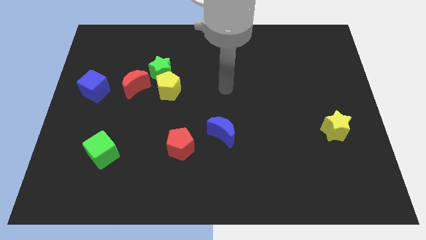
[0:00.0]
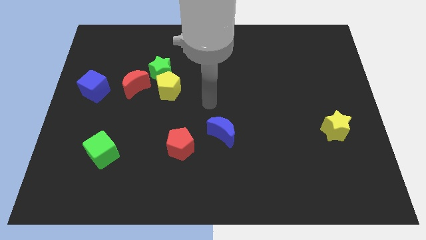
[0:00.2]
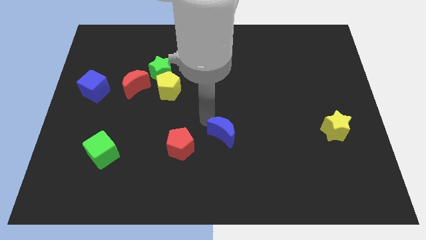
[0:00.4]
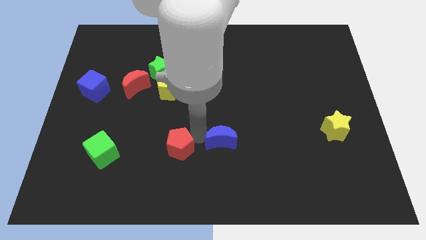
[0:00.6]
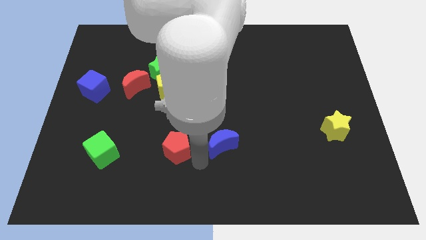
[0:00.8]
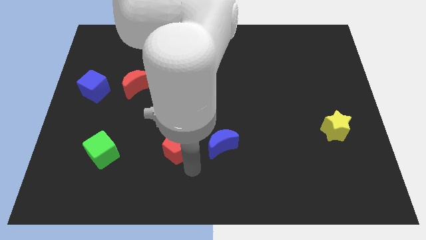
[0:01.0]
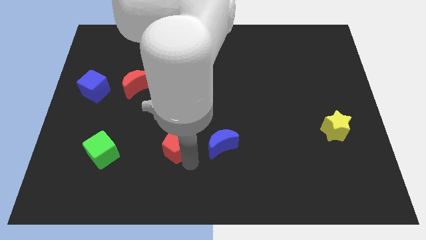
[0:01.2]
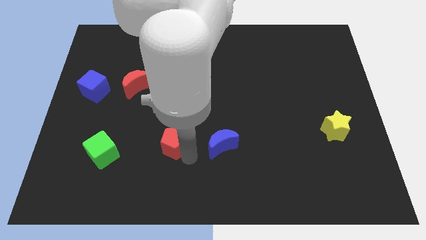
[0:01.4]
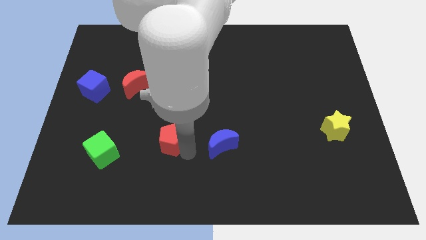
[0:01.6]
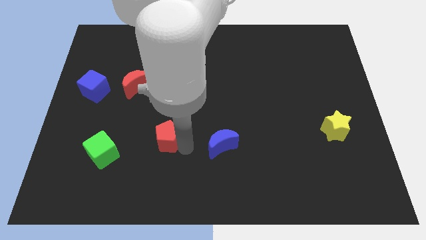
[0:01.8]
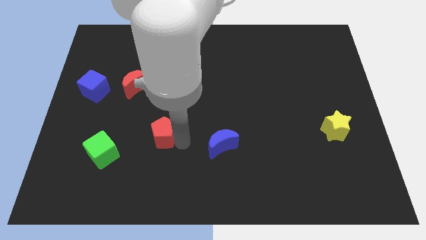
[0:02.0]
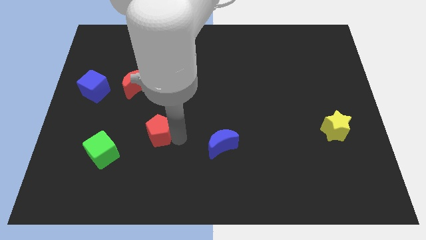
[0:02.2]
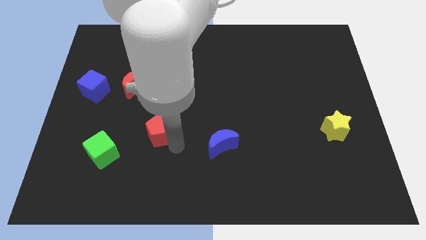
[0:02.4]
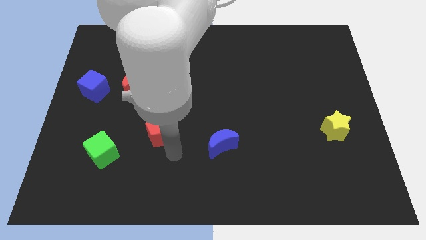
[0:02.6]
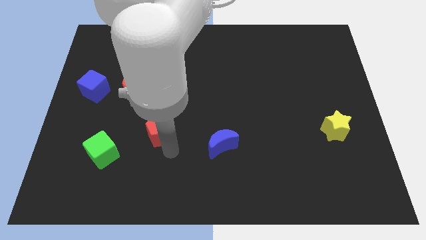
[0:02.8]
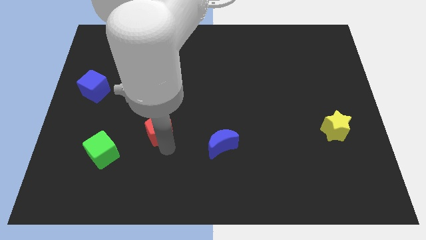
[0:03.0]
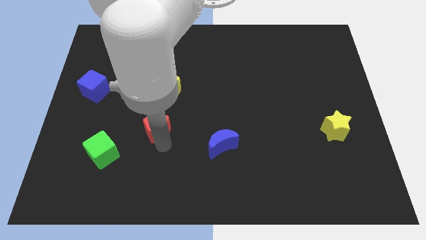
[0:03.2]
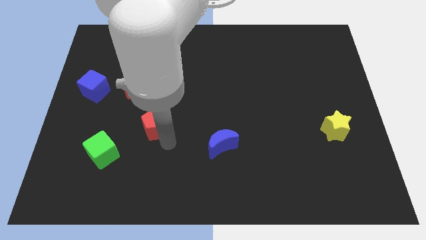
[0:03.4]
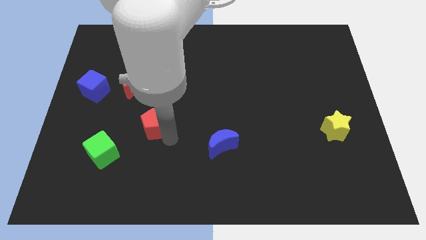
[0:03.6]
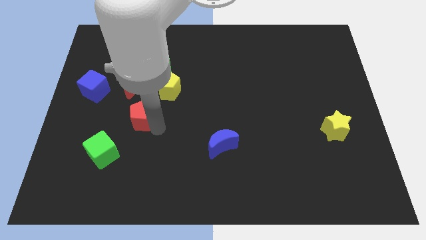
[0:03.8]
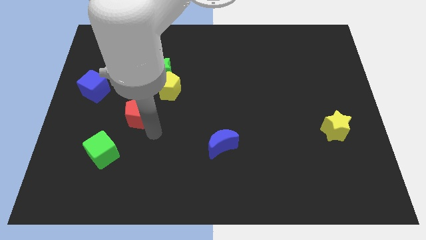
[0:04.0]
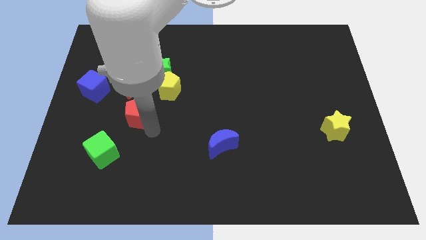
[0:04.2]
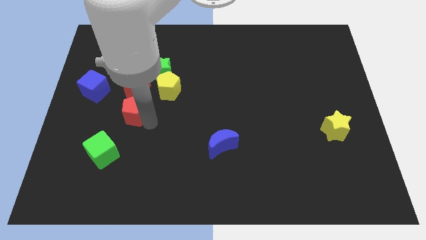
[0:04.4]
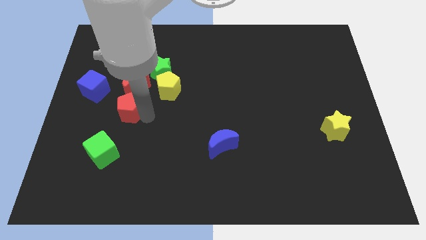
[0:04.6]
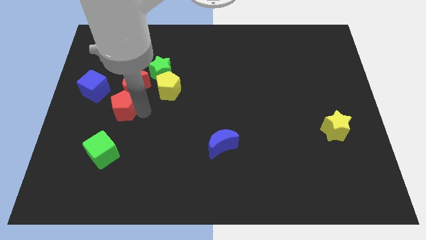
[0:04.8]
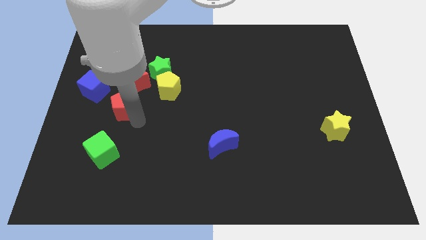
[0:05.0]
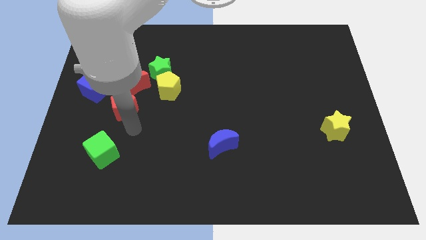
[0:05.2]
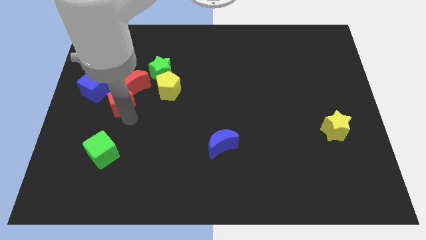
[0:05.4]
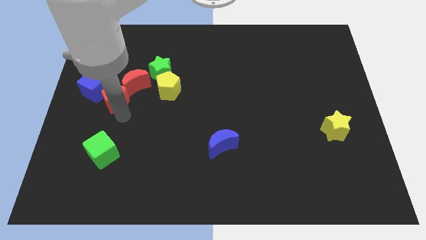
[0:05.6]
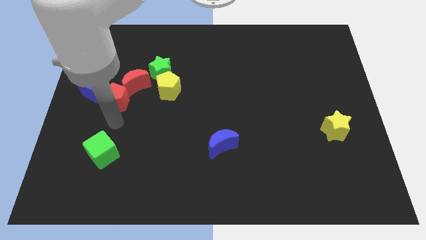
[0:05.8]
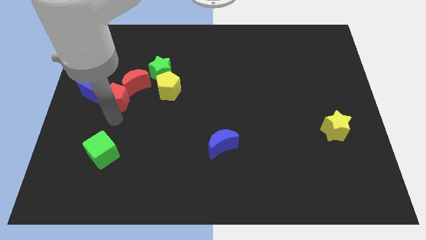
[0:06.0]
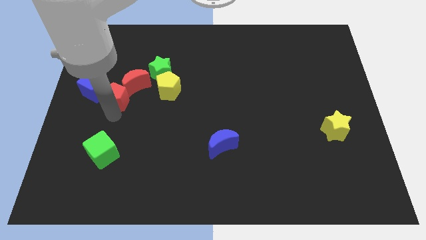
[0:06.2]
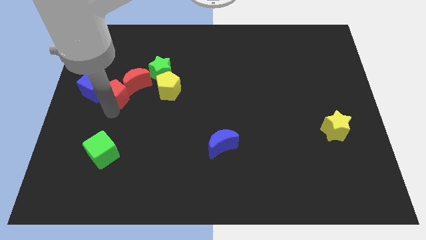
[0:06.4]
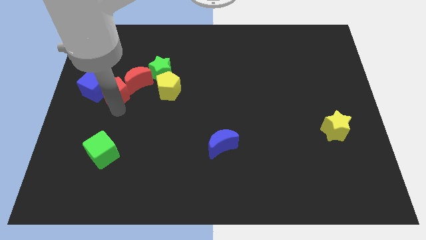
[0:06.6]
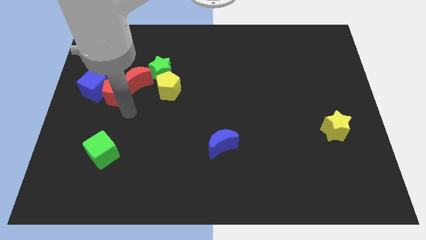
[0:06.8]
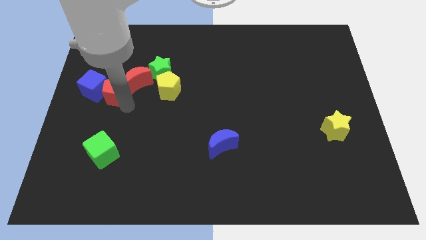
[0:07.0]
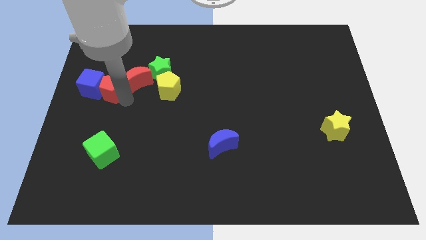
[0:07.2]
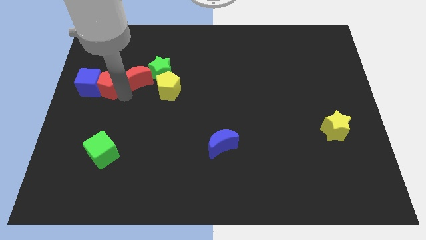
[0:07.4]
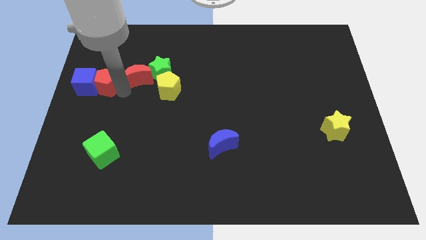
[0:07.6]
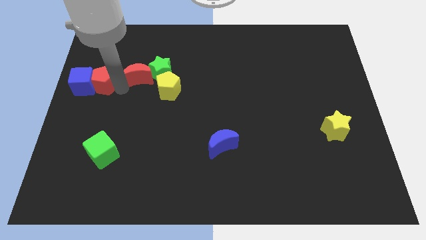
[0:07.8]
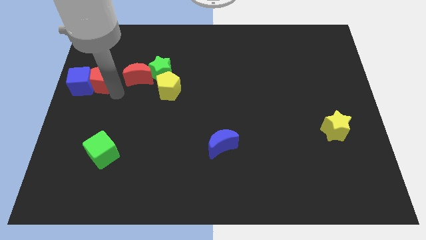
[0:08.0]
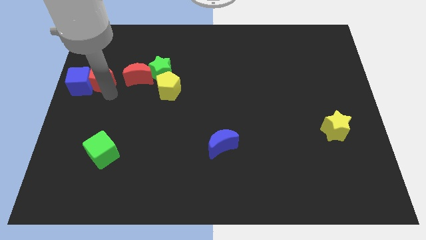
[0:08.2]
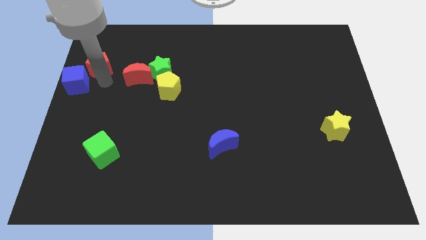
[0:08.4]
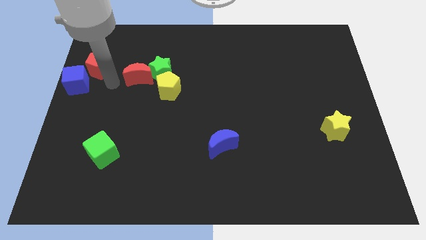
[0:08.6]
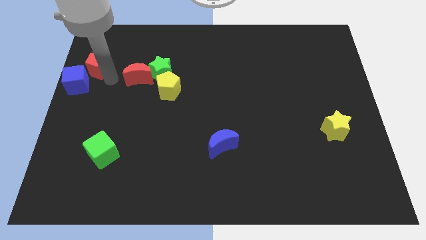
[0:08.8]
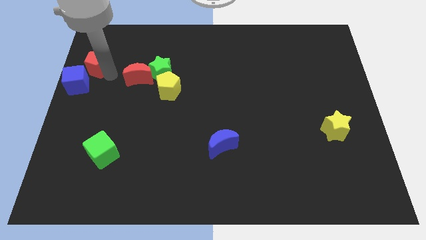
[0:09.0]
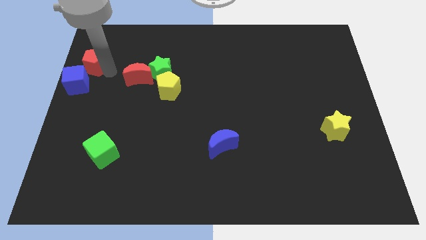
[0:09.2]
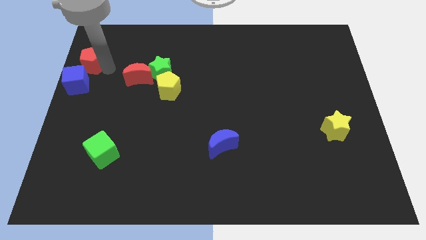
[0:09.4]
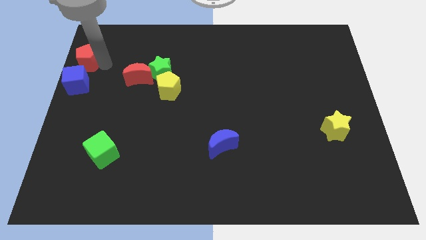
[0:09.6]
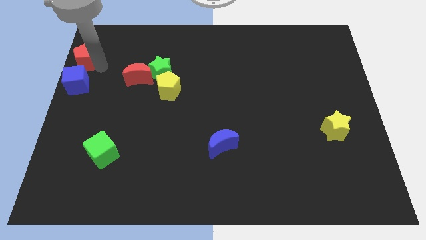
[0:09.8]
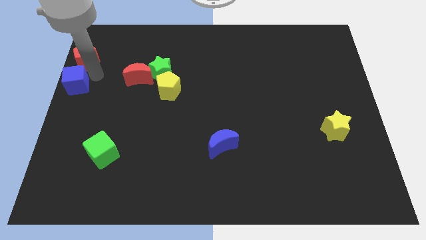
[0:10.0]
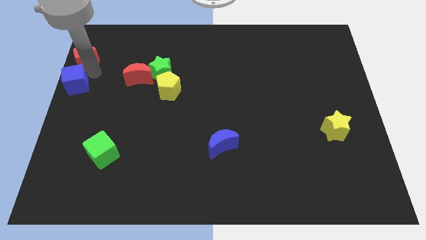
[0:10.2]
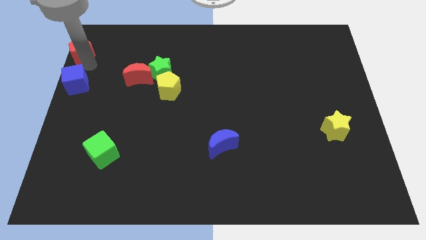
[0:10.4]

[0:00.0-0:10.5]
move the red pentagon to the top left of the board

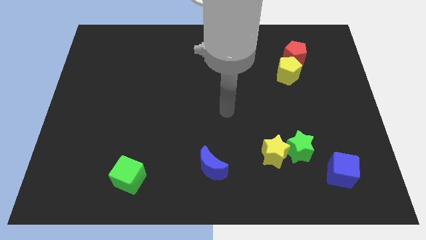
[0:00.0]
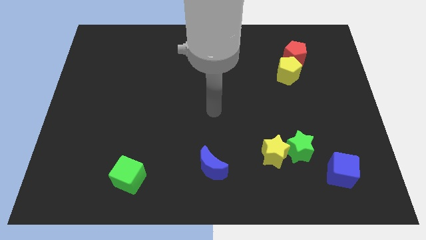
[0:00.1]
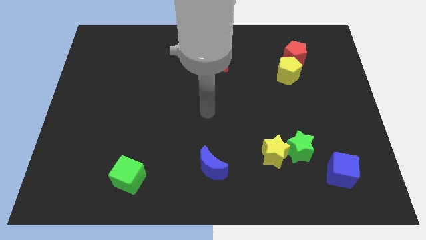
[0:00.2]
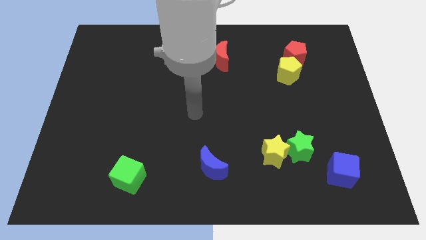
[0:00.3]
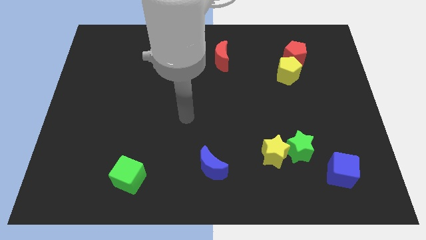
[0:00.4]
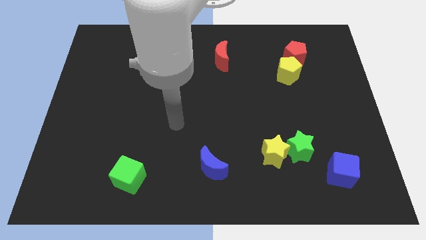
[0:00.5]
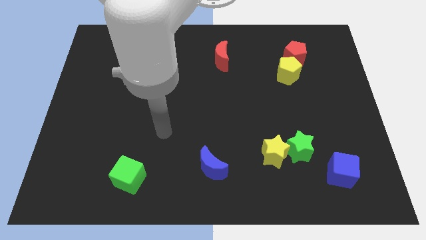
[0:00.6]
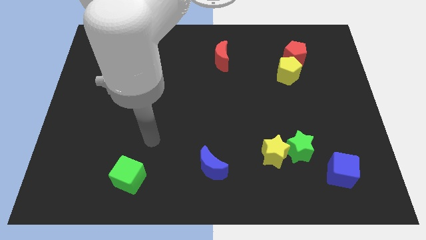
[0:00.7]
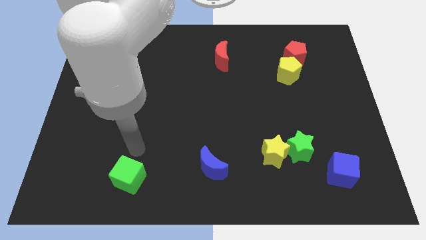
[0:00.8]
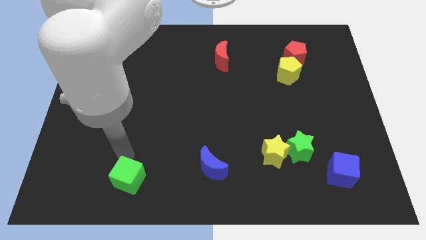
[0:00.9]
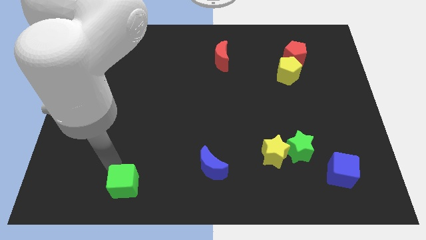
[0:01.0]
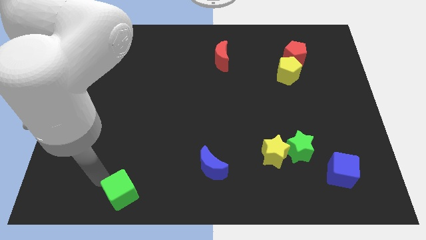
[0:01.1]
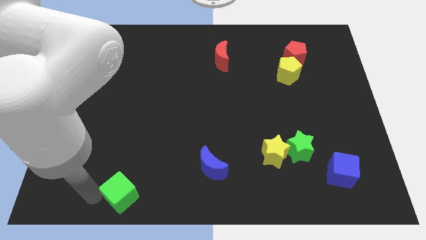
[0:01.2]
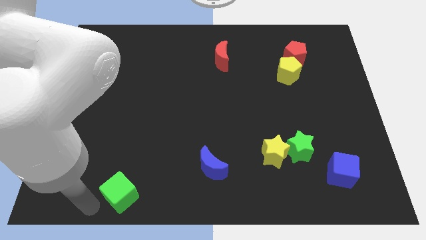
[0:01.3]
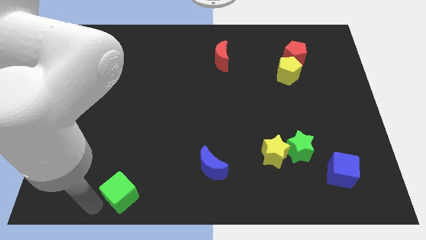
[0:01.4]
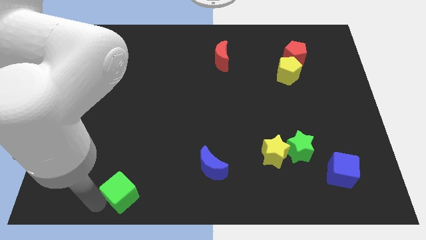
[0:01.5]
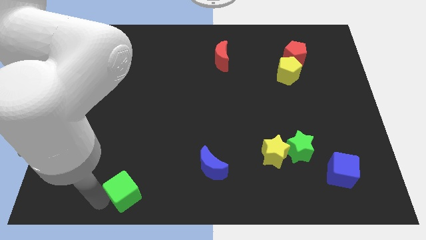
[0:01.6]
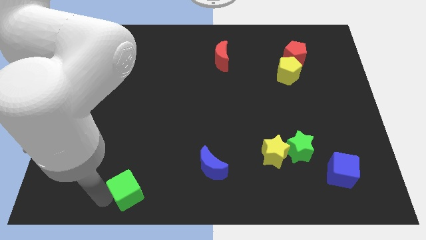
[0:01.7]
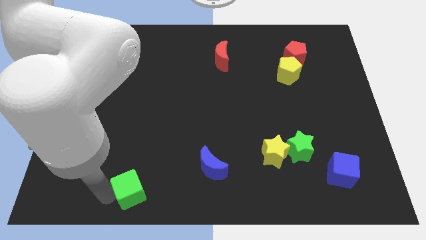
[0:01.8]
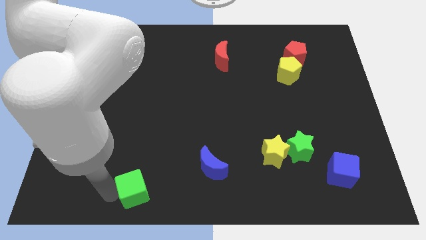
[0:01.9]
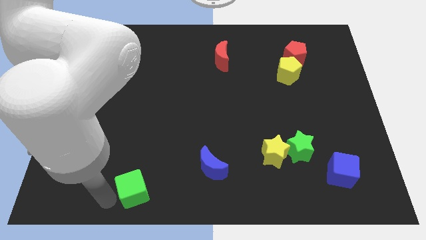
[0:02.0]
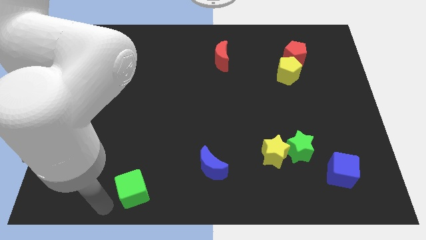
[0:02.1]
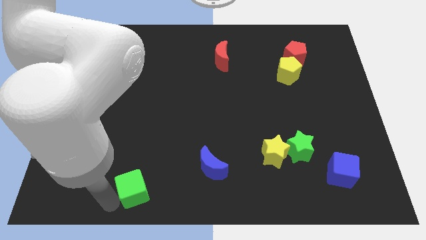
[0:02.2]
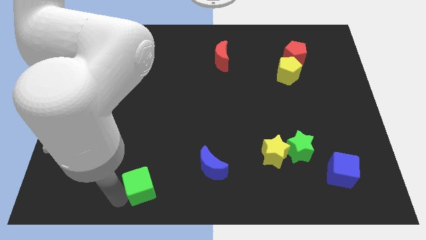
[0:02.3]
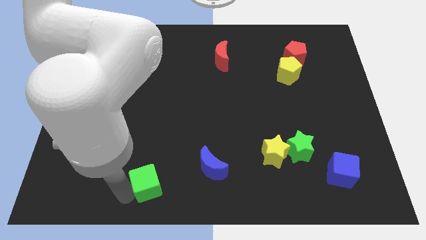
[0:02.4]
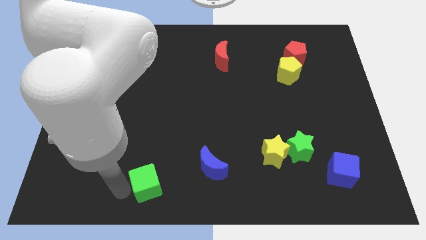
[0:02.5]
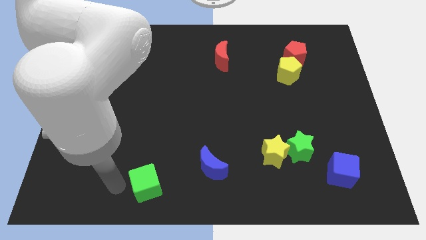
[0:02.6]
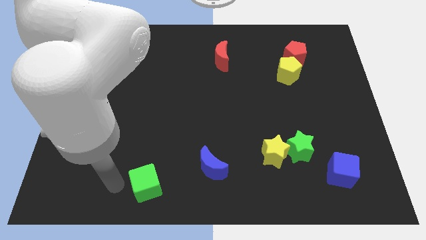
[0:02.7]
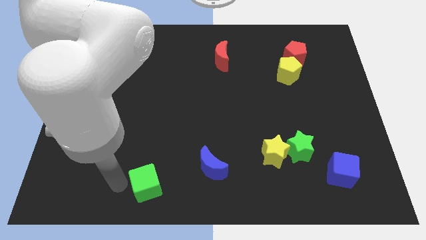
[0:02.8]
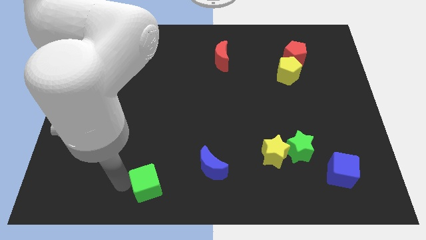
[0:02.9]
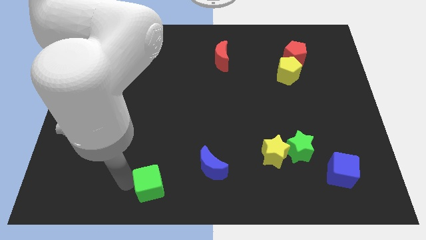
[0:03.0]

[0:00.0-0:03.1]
move the green cube to the bottom side
